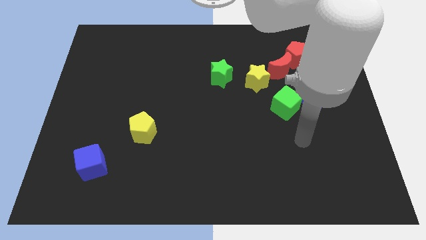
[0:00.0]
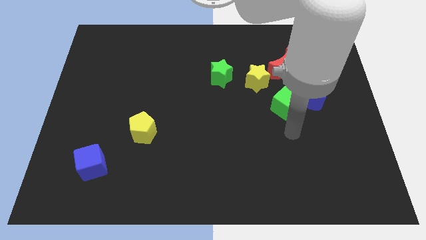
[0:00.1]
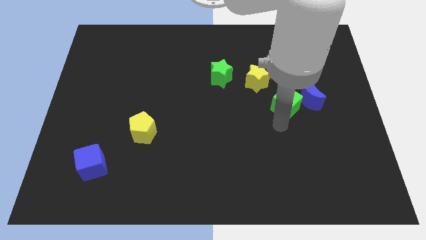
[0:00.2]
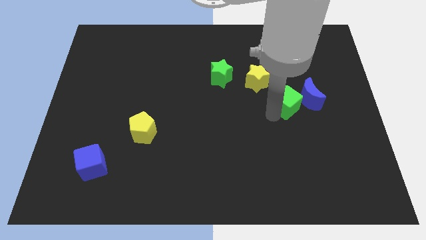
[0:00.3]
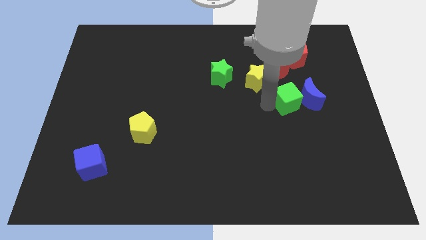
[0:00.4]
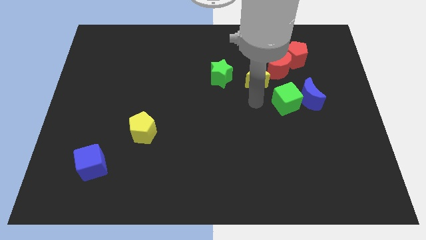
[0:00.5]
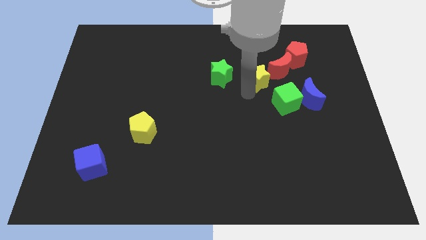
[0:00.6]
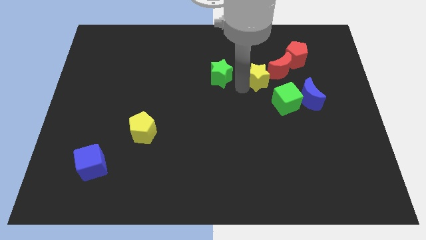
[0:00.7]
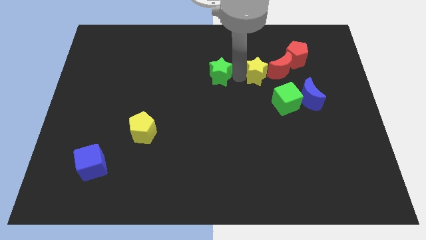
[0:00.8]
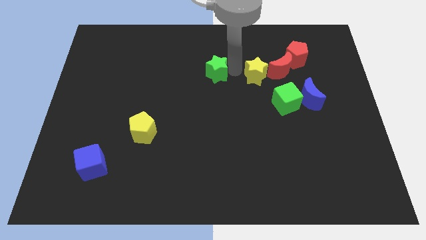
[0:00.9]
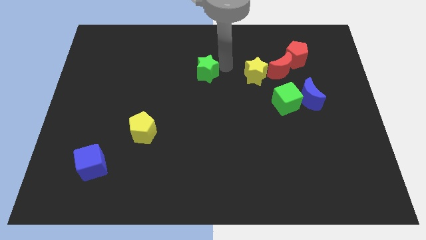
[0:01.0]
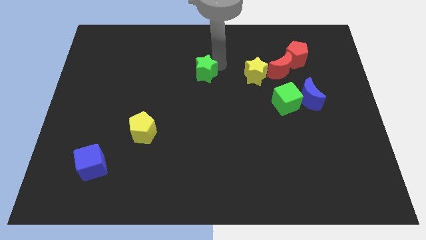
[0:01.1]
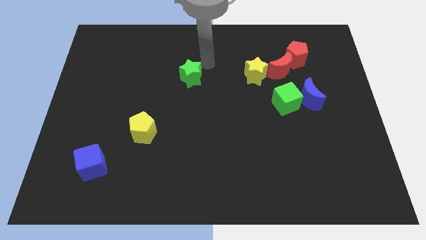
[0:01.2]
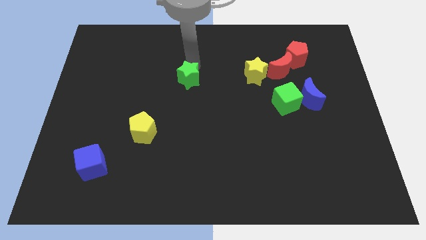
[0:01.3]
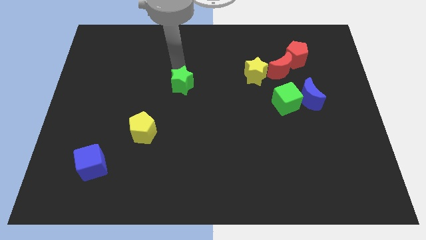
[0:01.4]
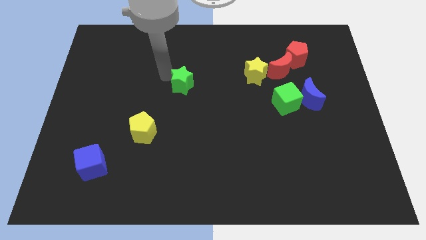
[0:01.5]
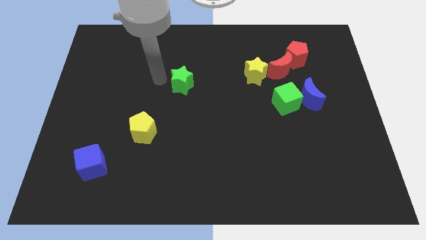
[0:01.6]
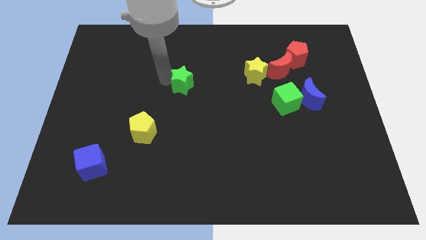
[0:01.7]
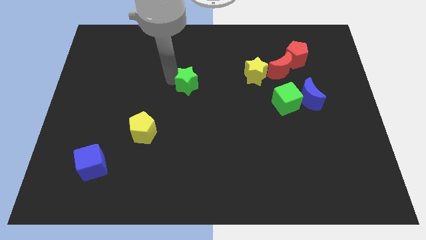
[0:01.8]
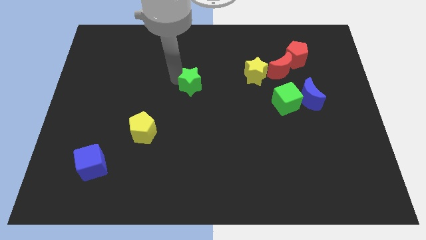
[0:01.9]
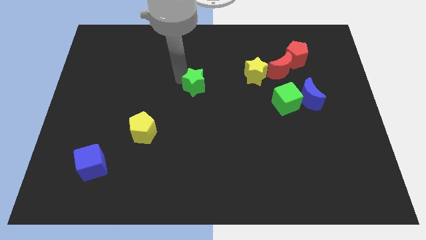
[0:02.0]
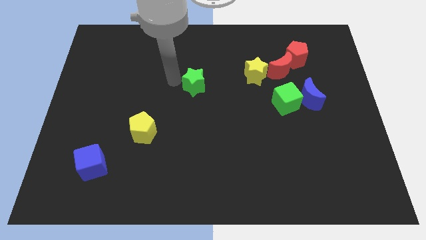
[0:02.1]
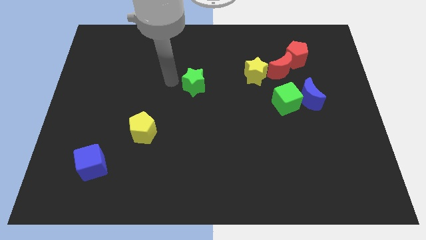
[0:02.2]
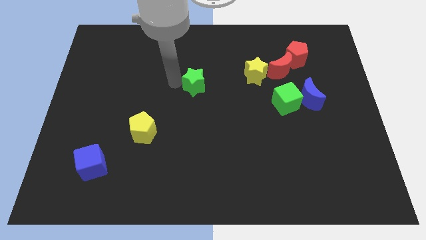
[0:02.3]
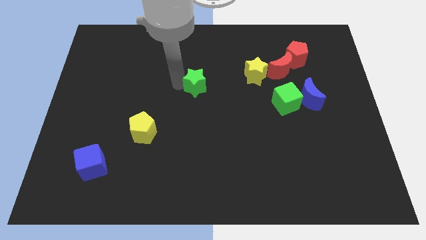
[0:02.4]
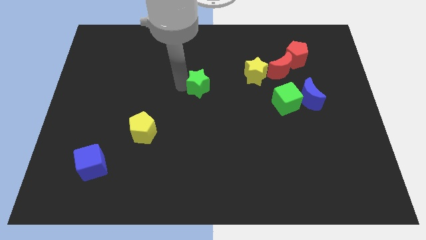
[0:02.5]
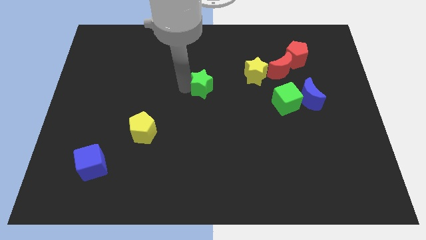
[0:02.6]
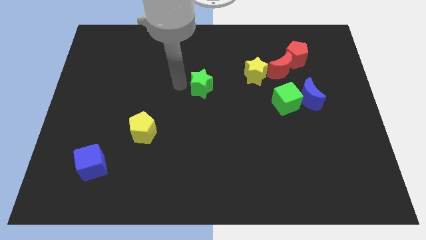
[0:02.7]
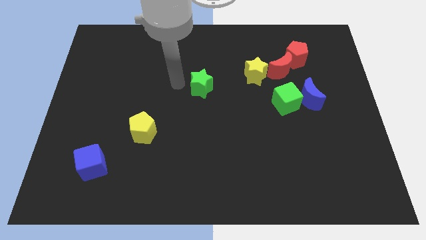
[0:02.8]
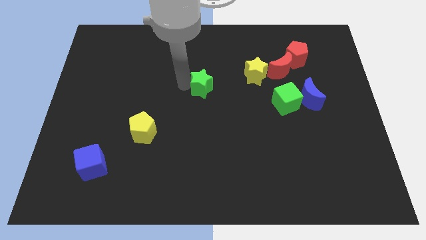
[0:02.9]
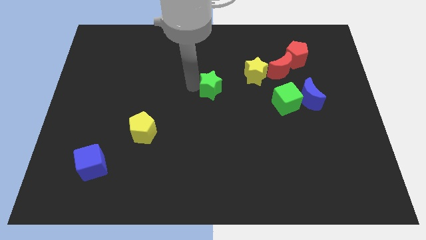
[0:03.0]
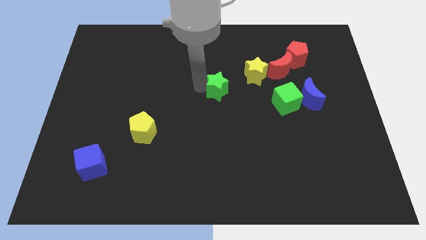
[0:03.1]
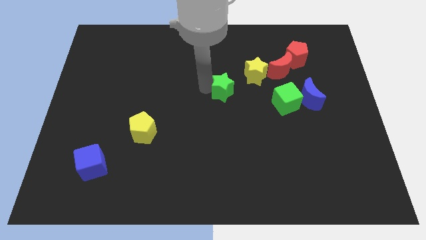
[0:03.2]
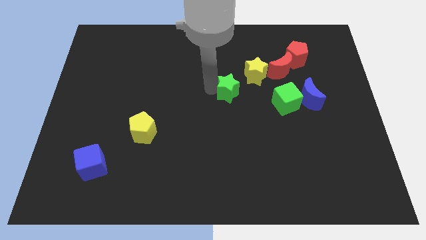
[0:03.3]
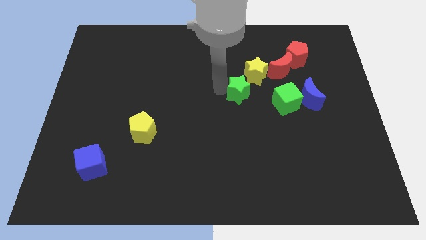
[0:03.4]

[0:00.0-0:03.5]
slightly push the green star diagonally down and right

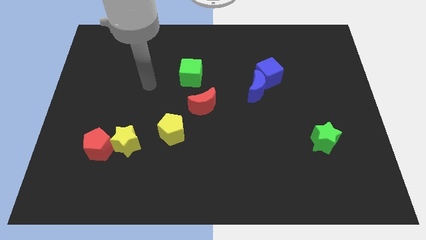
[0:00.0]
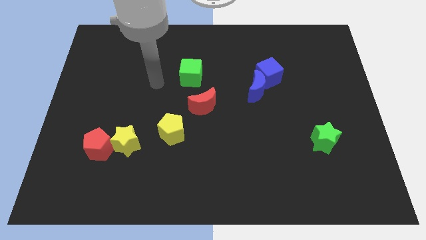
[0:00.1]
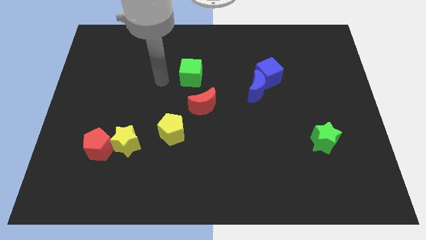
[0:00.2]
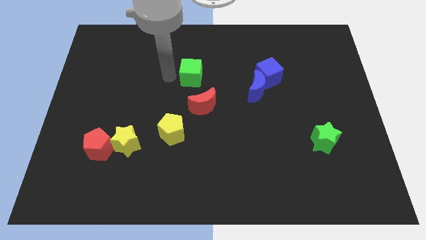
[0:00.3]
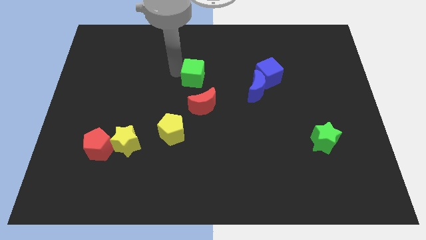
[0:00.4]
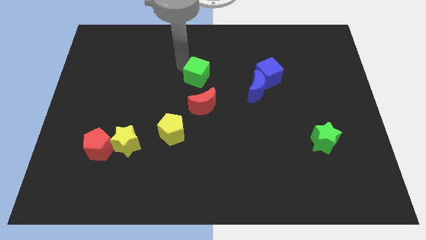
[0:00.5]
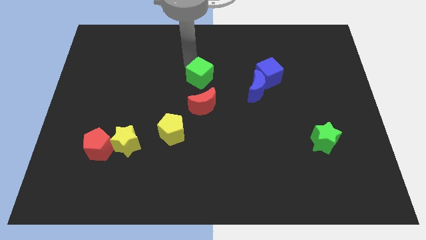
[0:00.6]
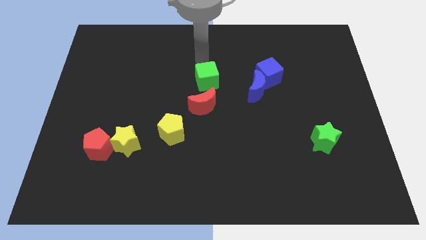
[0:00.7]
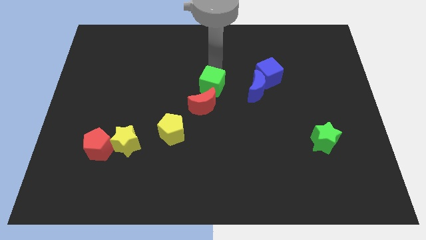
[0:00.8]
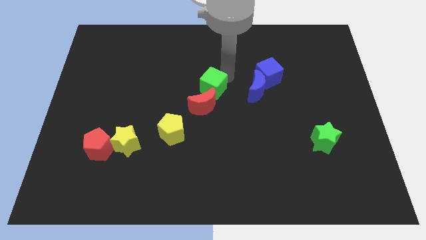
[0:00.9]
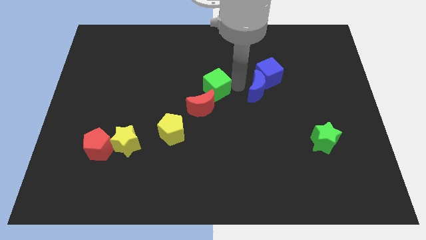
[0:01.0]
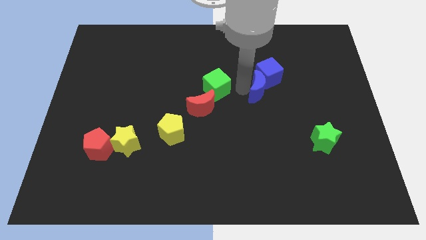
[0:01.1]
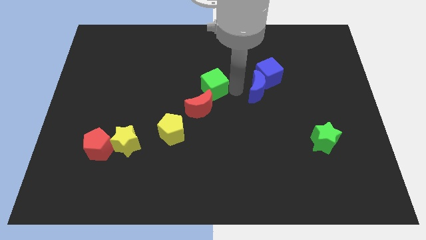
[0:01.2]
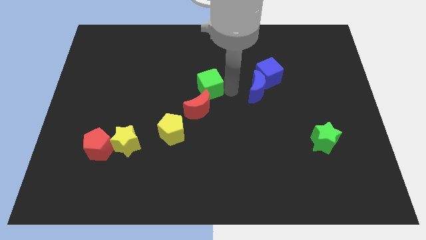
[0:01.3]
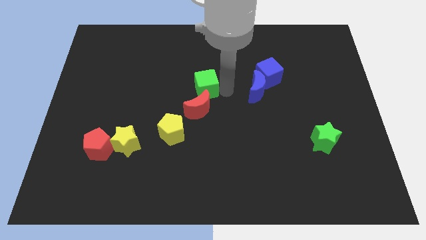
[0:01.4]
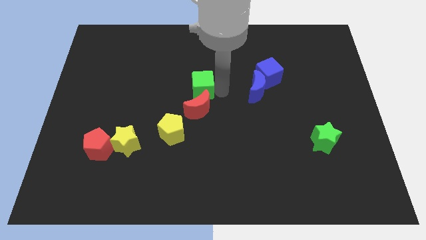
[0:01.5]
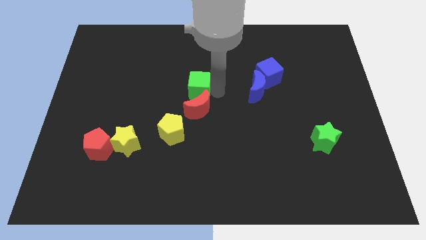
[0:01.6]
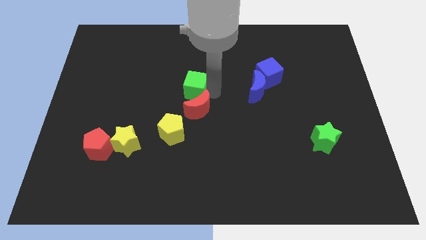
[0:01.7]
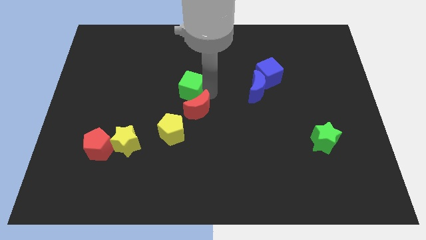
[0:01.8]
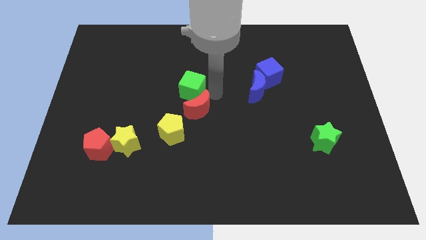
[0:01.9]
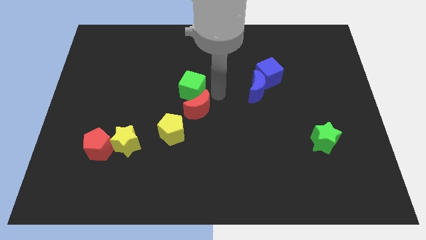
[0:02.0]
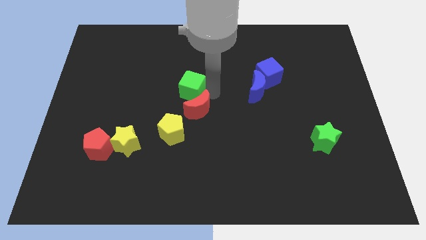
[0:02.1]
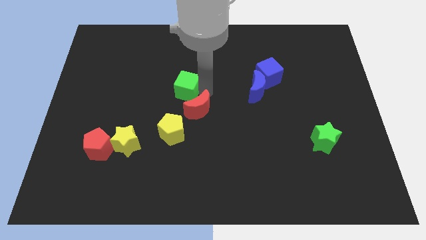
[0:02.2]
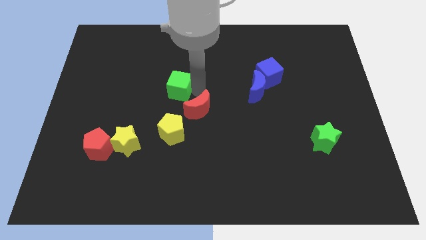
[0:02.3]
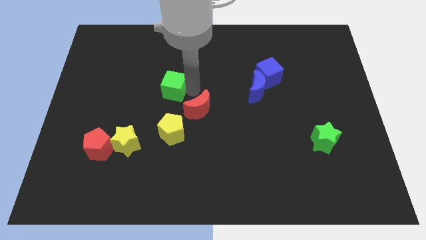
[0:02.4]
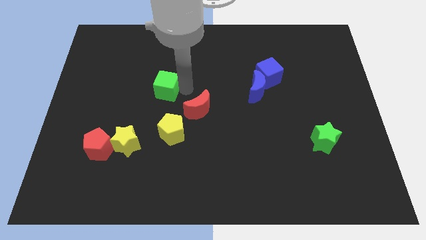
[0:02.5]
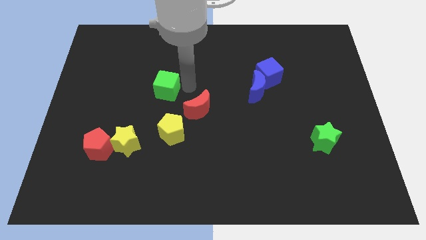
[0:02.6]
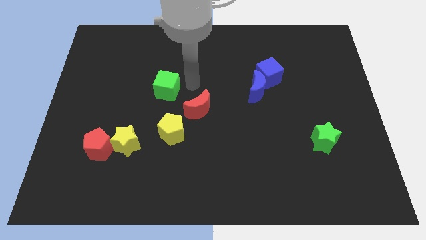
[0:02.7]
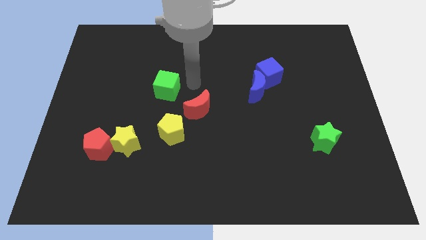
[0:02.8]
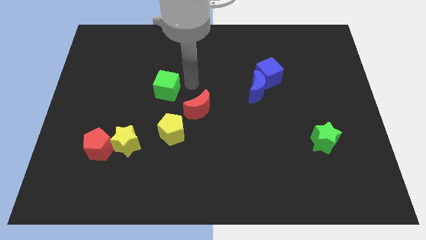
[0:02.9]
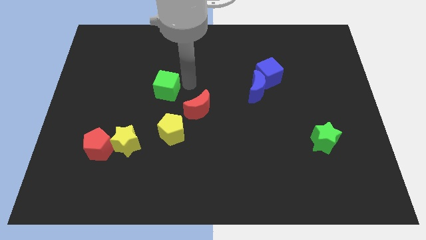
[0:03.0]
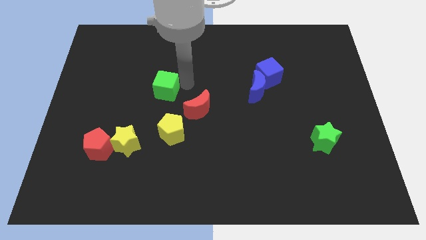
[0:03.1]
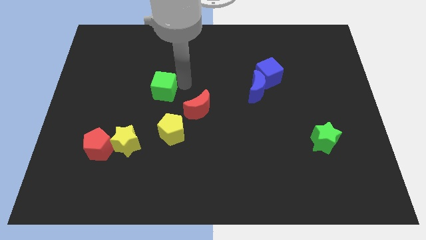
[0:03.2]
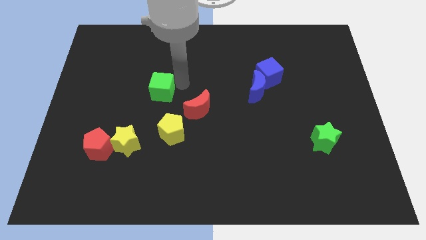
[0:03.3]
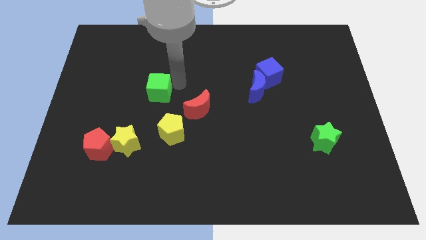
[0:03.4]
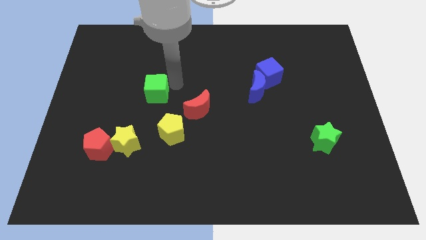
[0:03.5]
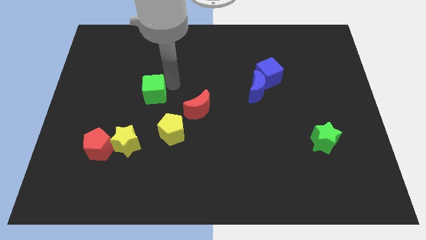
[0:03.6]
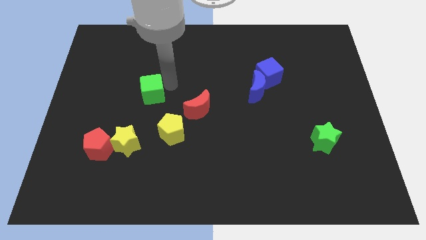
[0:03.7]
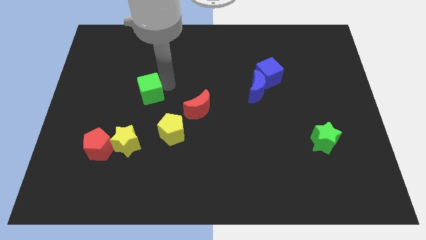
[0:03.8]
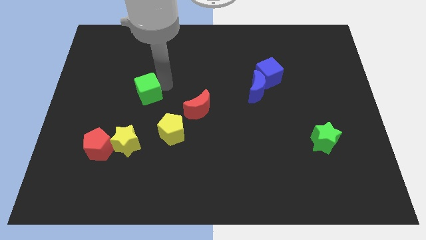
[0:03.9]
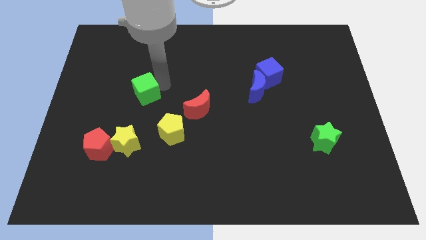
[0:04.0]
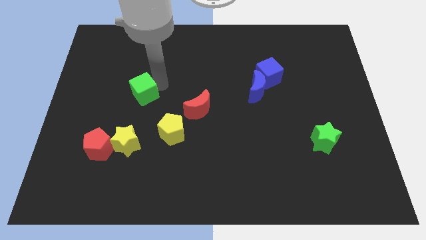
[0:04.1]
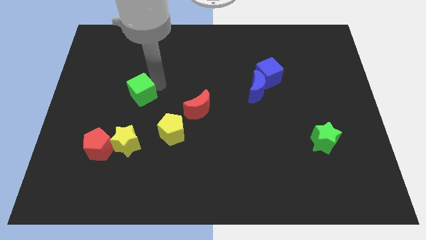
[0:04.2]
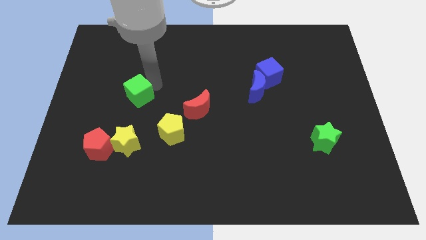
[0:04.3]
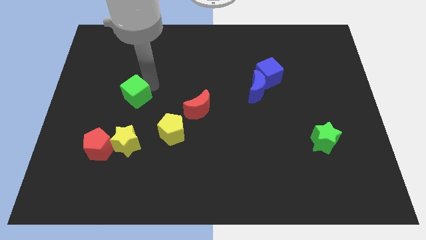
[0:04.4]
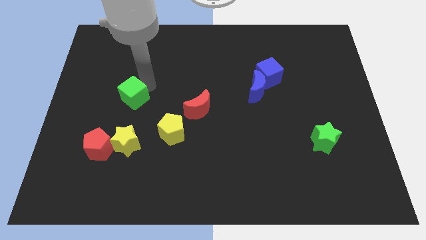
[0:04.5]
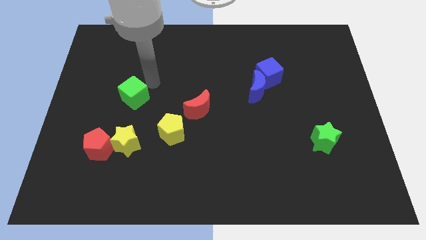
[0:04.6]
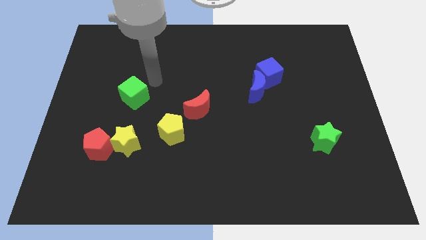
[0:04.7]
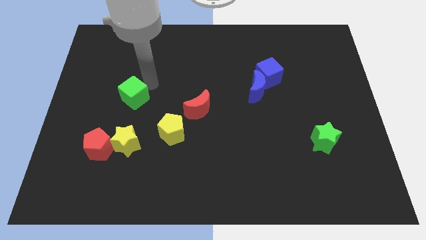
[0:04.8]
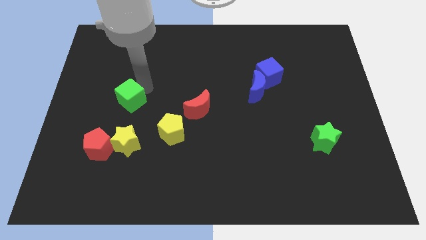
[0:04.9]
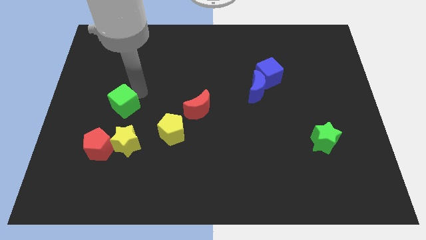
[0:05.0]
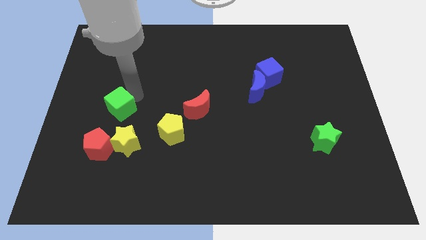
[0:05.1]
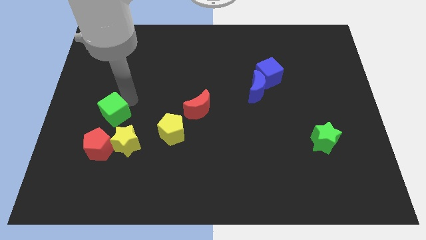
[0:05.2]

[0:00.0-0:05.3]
move the green cube downwards and to the left diagonally
